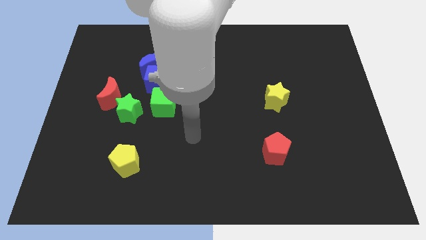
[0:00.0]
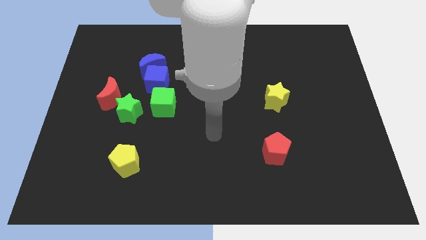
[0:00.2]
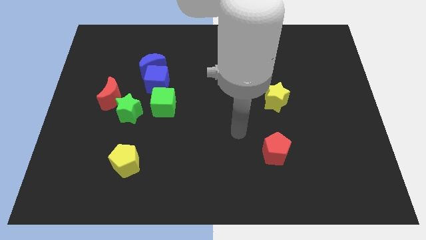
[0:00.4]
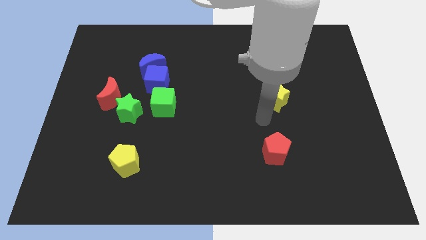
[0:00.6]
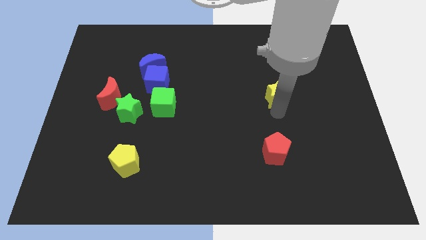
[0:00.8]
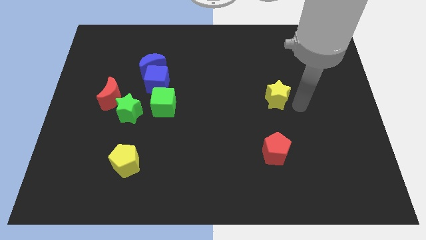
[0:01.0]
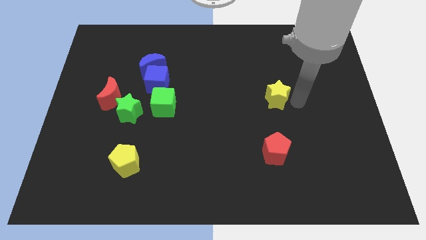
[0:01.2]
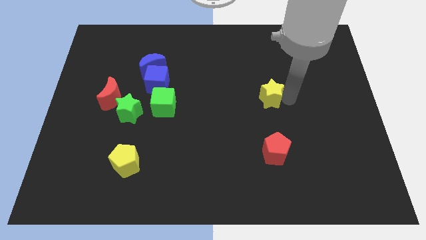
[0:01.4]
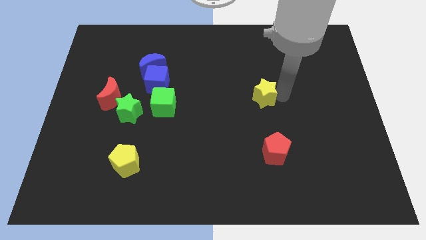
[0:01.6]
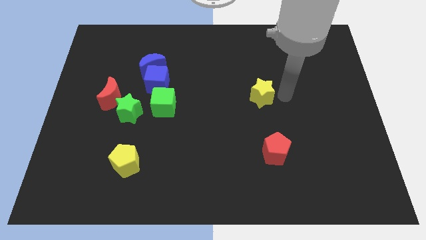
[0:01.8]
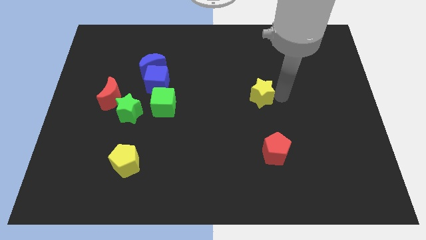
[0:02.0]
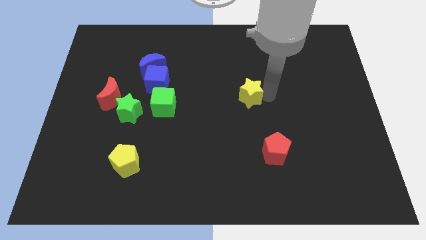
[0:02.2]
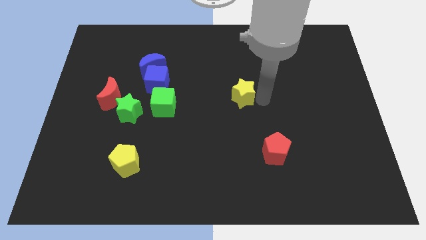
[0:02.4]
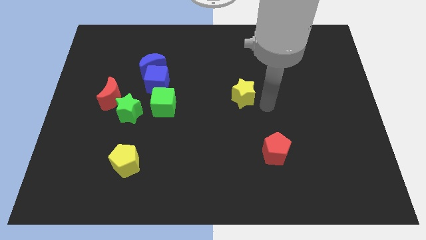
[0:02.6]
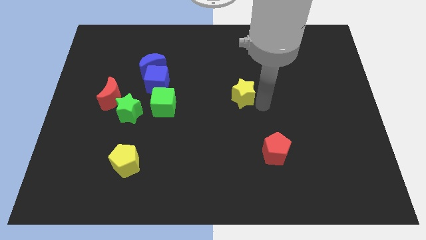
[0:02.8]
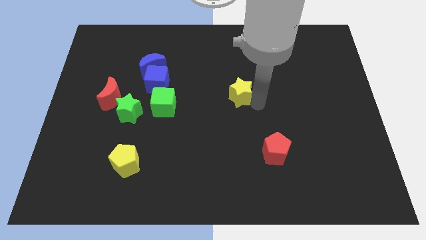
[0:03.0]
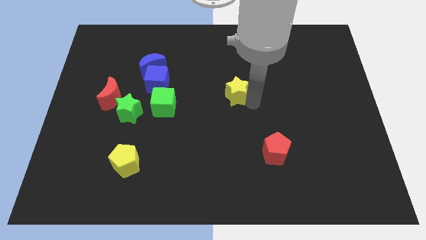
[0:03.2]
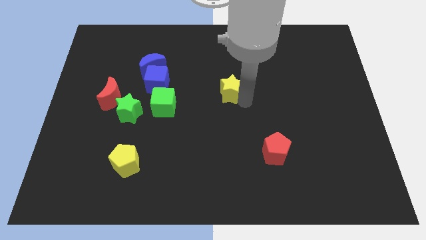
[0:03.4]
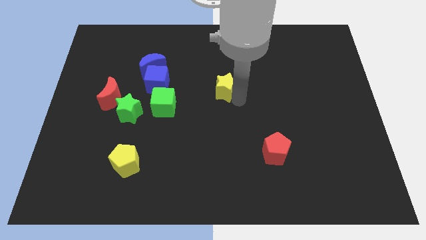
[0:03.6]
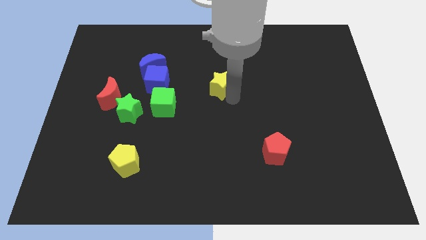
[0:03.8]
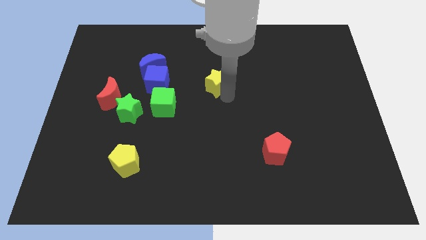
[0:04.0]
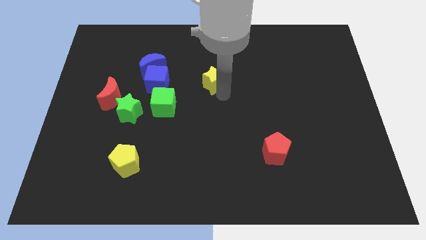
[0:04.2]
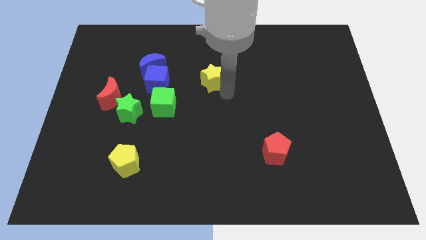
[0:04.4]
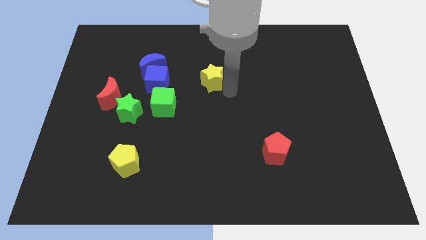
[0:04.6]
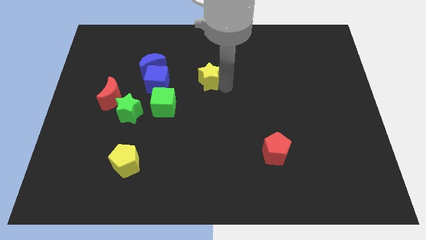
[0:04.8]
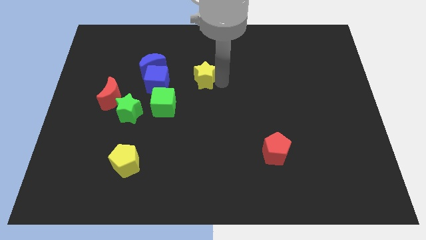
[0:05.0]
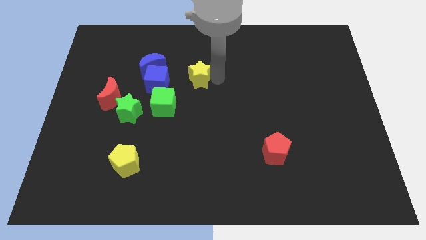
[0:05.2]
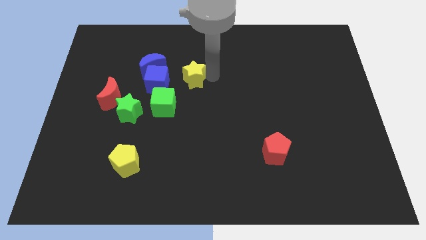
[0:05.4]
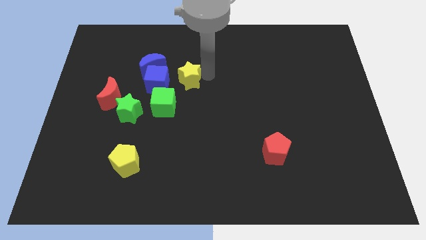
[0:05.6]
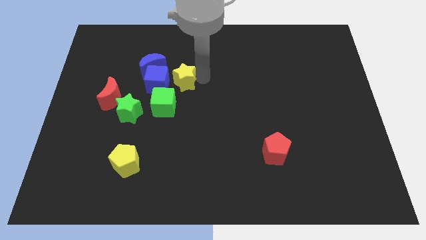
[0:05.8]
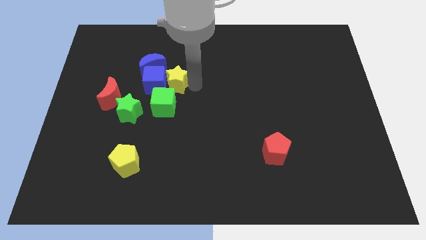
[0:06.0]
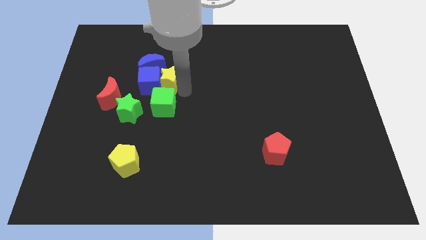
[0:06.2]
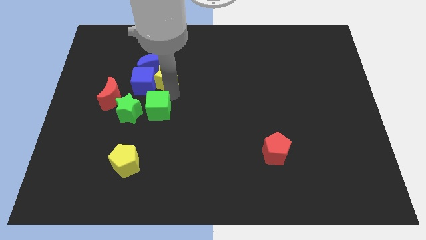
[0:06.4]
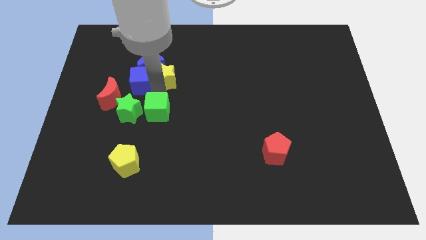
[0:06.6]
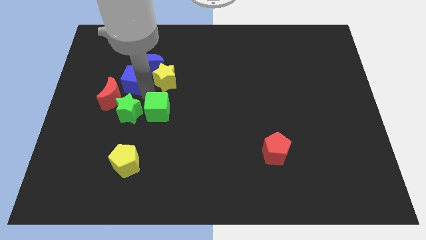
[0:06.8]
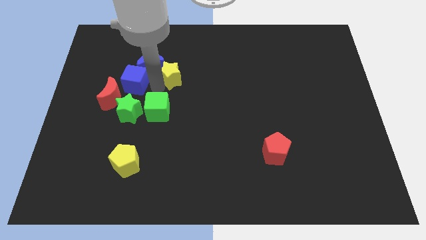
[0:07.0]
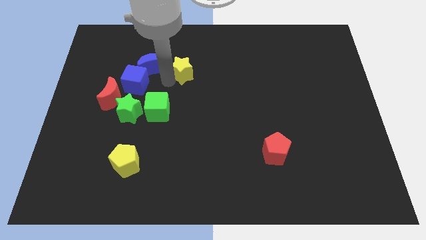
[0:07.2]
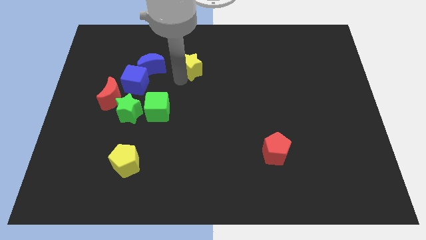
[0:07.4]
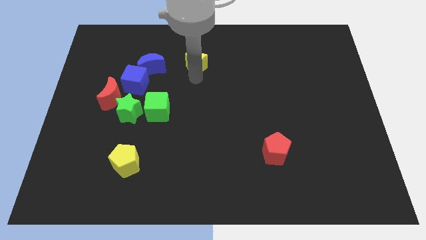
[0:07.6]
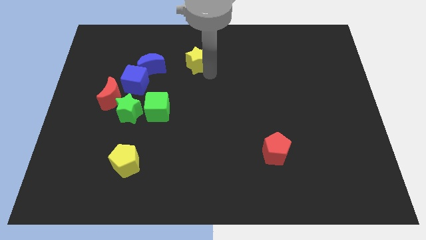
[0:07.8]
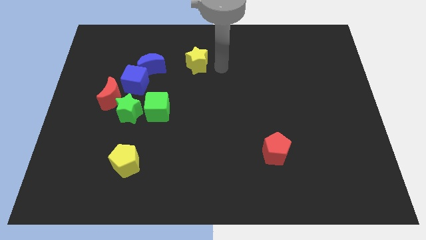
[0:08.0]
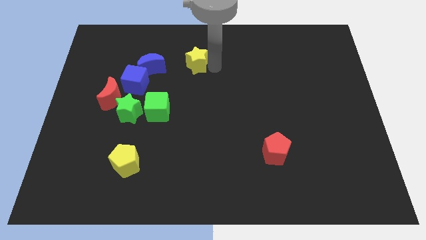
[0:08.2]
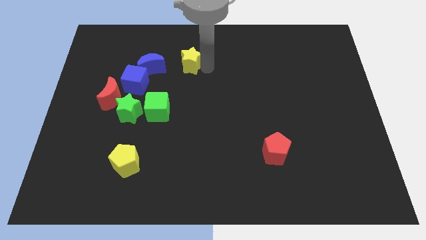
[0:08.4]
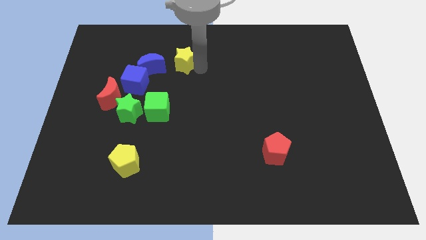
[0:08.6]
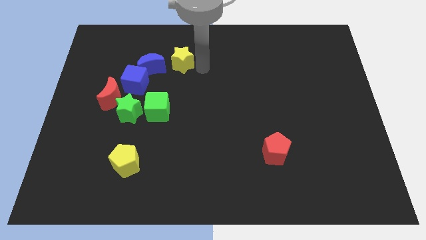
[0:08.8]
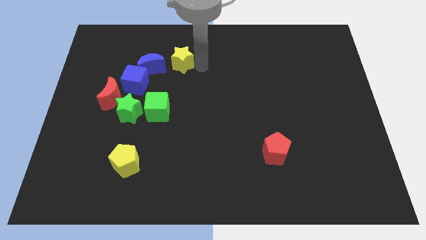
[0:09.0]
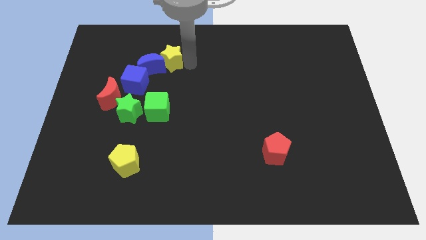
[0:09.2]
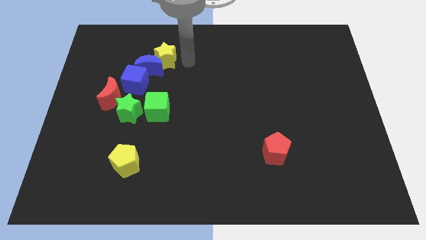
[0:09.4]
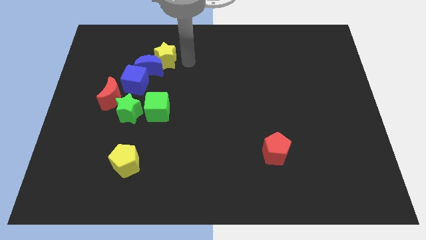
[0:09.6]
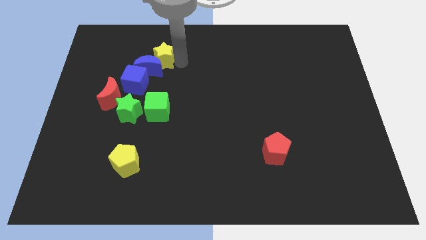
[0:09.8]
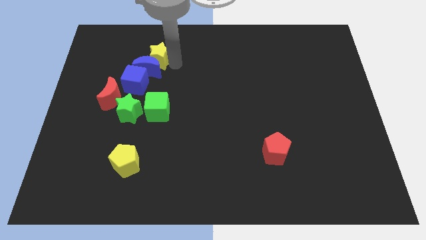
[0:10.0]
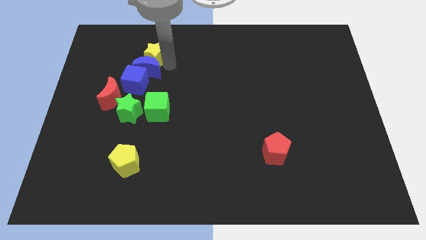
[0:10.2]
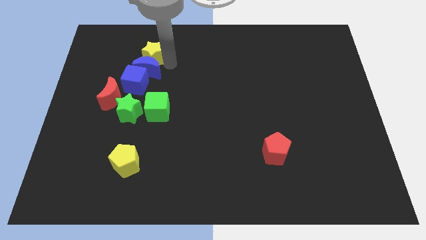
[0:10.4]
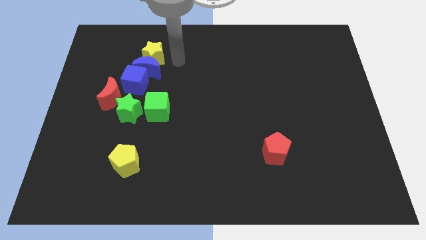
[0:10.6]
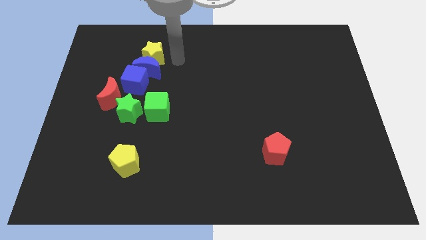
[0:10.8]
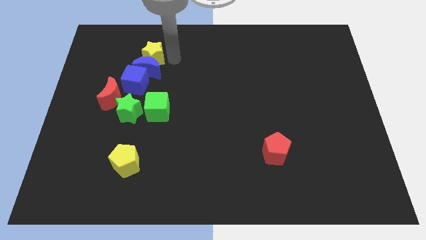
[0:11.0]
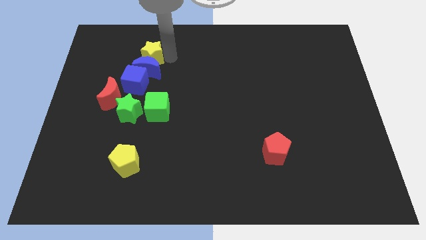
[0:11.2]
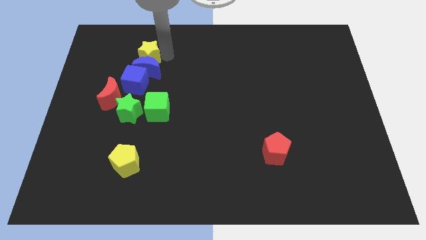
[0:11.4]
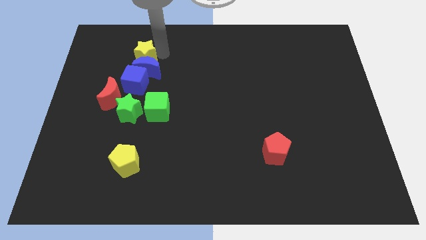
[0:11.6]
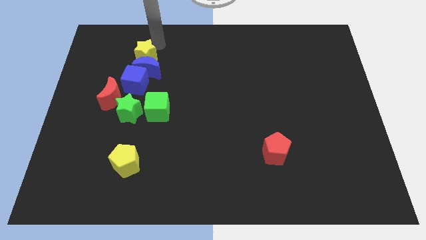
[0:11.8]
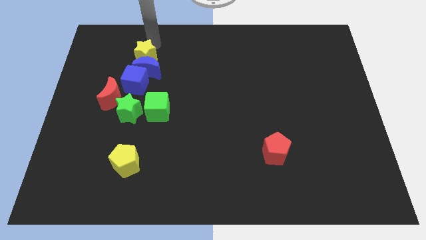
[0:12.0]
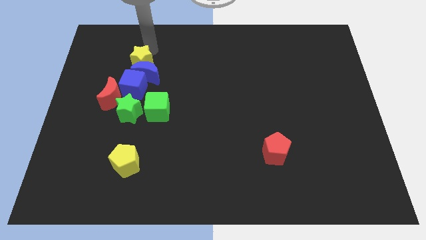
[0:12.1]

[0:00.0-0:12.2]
put the yellow star to the top of the green star

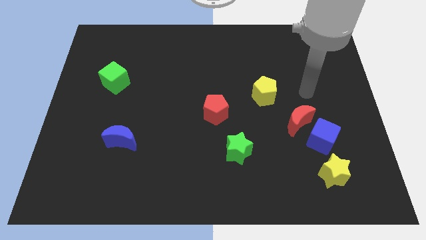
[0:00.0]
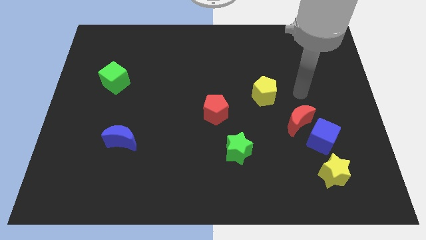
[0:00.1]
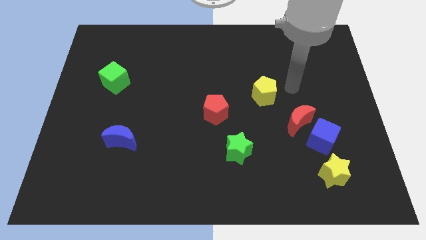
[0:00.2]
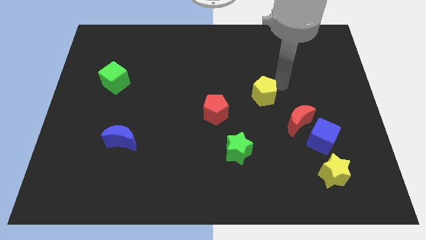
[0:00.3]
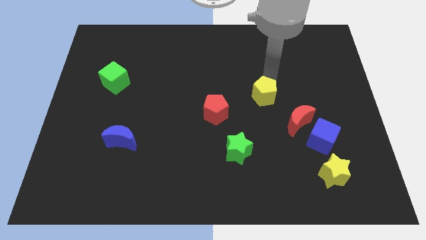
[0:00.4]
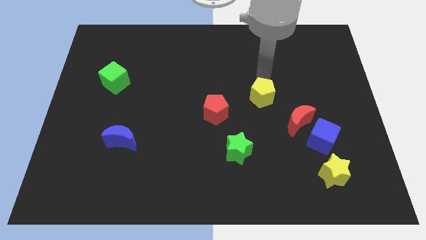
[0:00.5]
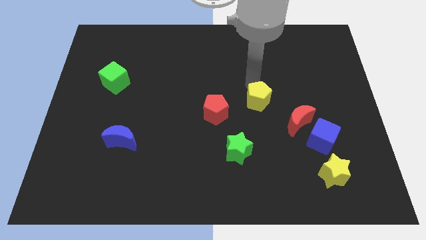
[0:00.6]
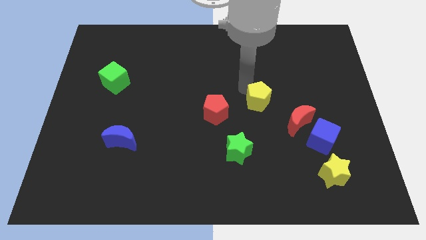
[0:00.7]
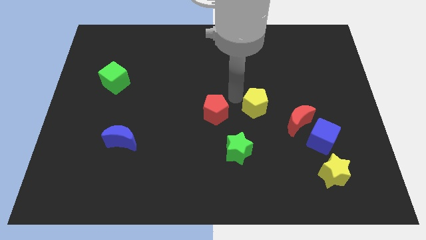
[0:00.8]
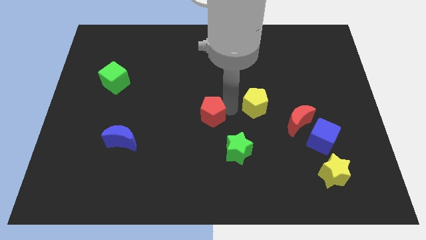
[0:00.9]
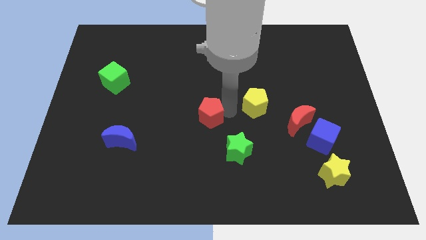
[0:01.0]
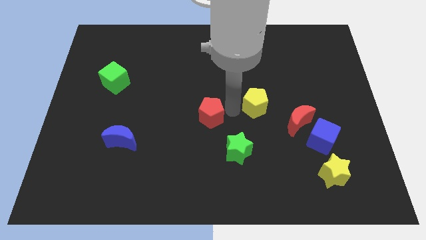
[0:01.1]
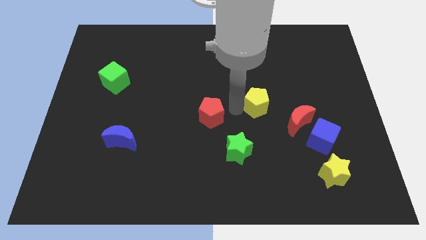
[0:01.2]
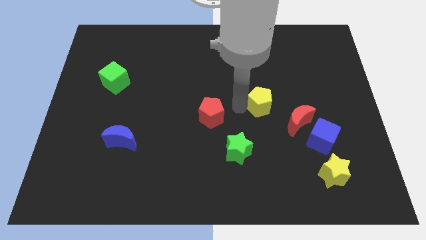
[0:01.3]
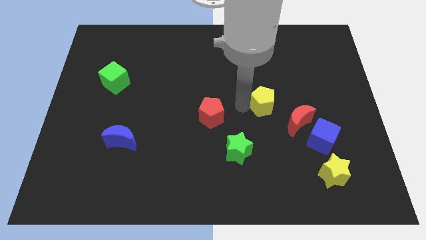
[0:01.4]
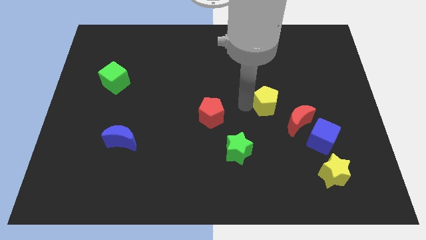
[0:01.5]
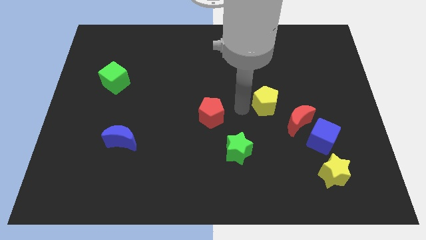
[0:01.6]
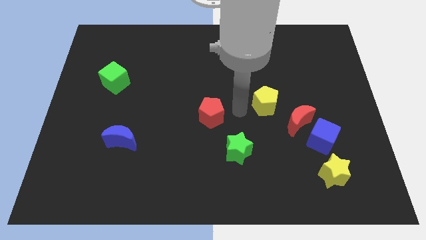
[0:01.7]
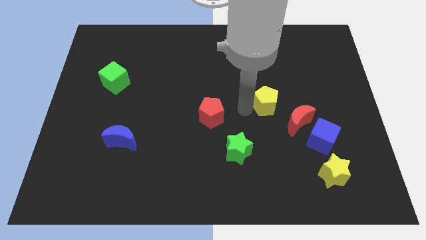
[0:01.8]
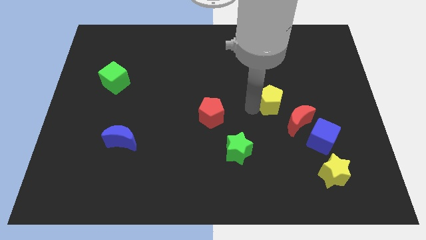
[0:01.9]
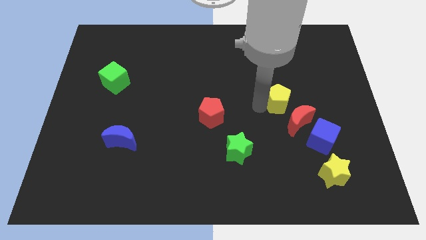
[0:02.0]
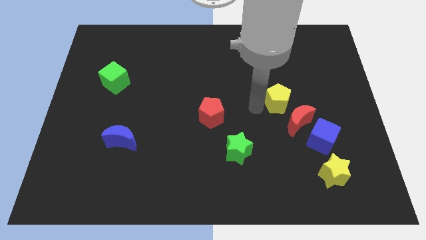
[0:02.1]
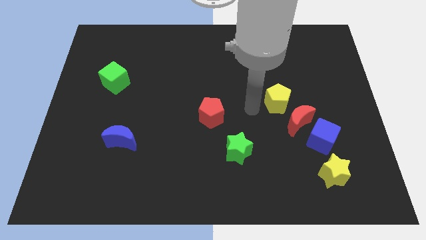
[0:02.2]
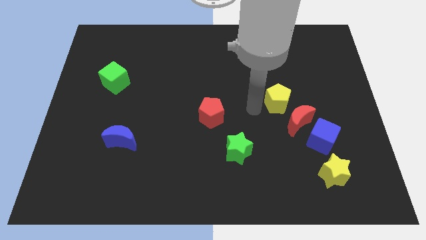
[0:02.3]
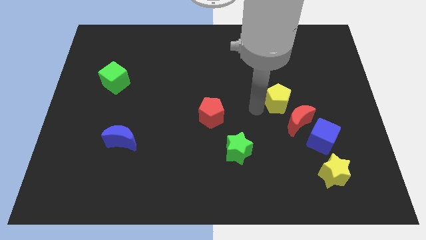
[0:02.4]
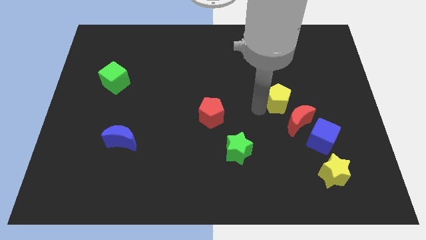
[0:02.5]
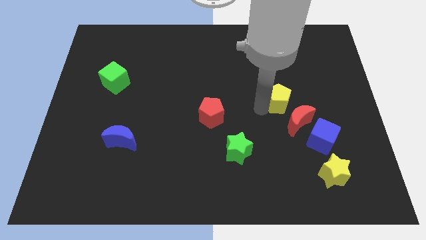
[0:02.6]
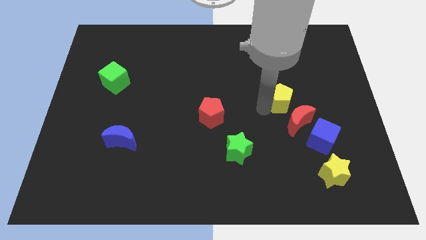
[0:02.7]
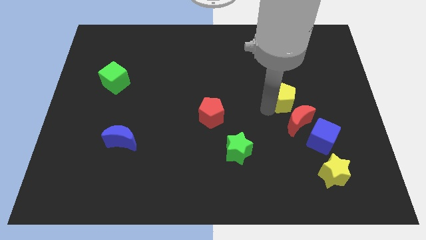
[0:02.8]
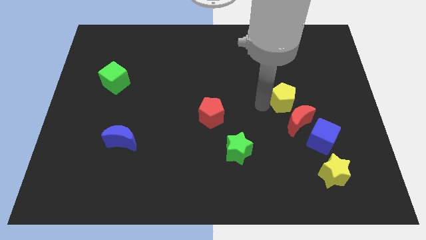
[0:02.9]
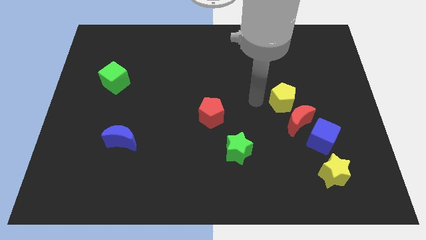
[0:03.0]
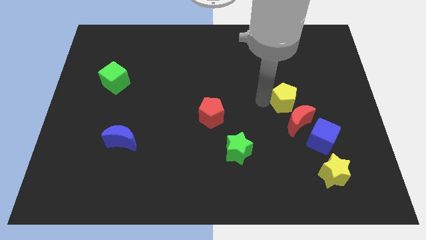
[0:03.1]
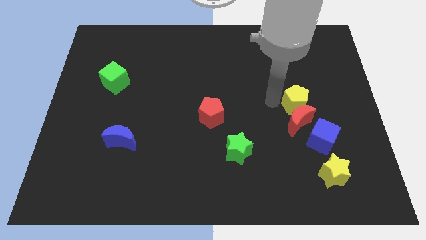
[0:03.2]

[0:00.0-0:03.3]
move the yellow pentagon to the top right of the red moon
